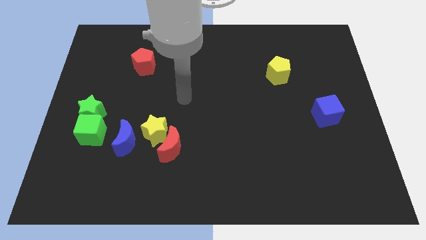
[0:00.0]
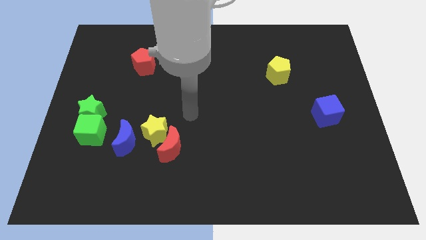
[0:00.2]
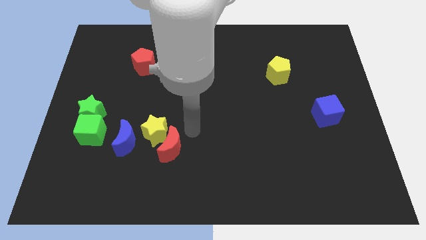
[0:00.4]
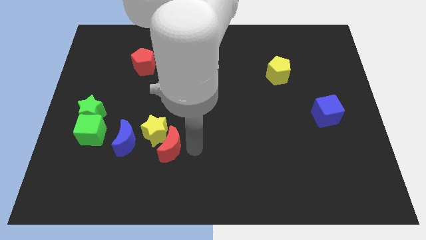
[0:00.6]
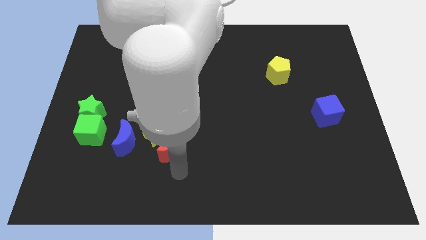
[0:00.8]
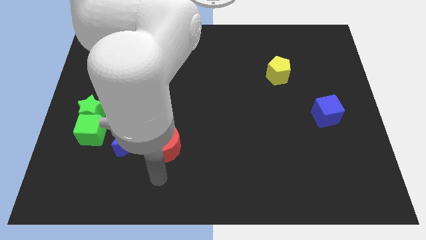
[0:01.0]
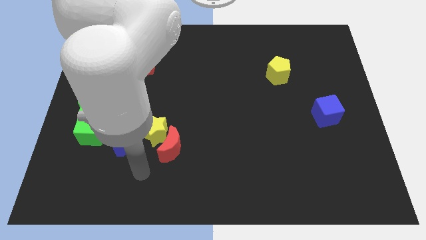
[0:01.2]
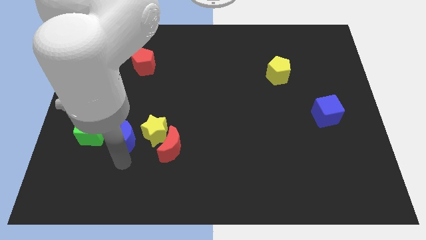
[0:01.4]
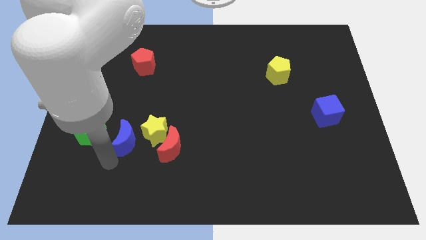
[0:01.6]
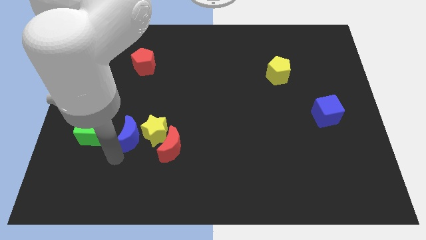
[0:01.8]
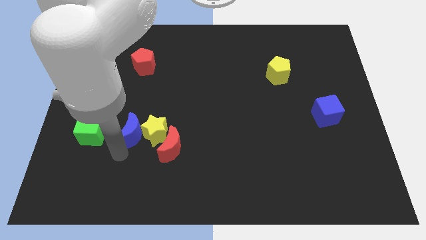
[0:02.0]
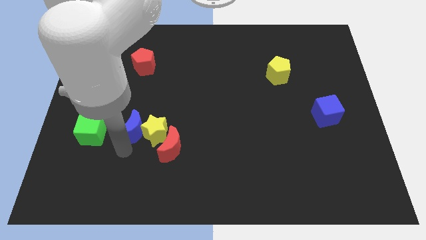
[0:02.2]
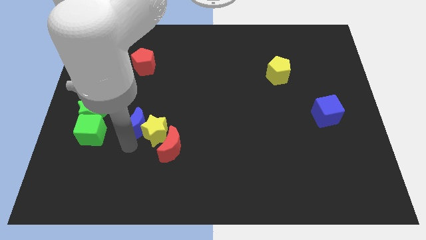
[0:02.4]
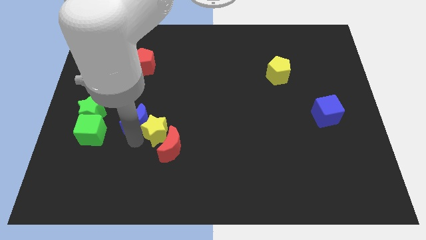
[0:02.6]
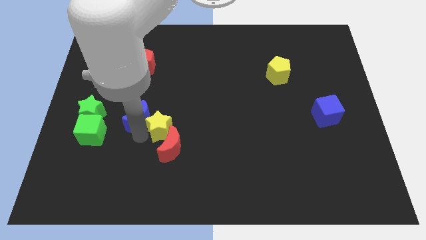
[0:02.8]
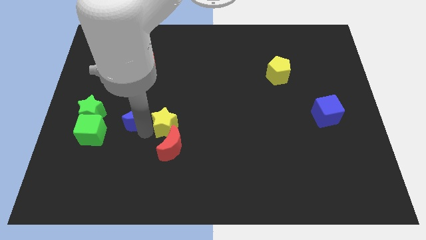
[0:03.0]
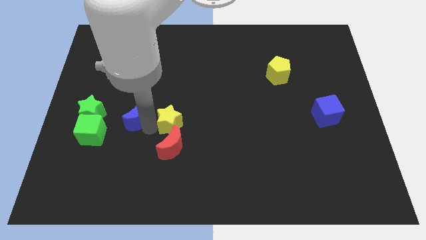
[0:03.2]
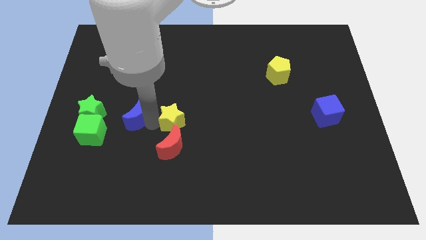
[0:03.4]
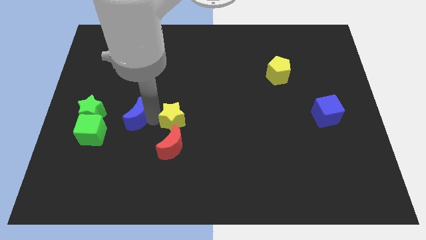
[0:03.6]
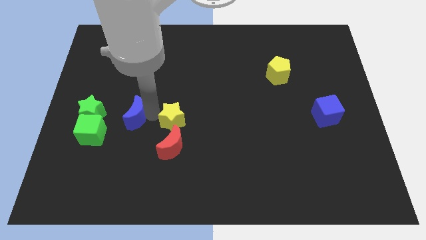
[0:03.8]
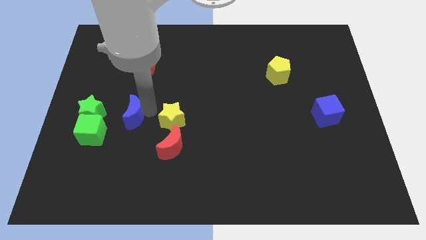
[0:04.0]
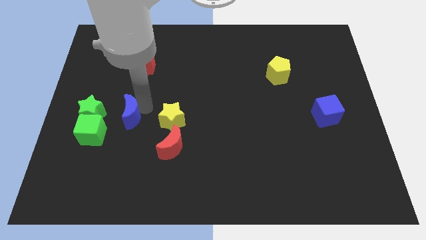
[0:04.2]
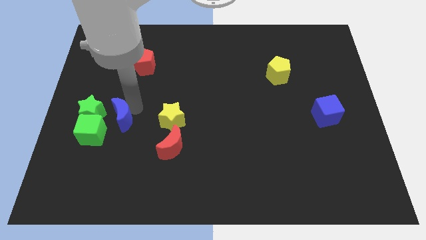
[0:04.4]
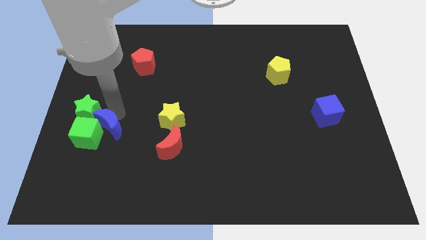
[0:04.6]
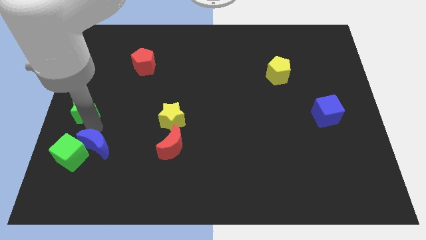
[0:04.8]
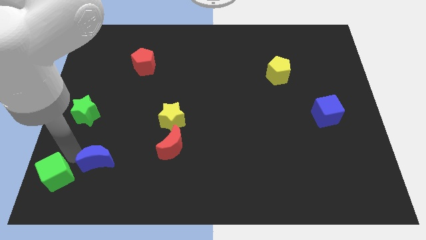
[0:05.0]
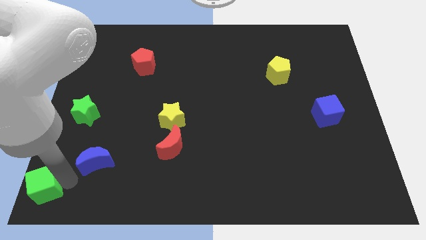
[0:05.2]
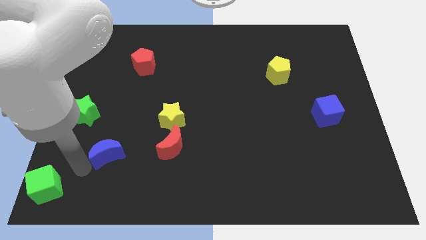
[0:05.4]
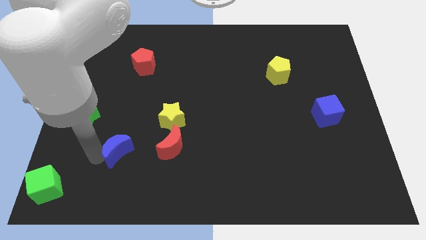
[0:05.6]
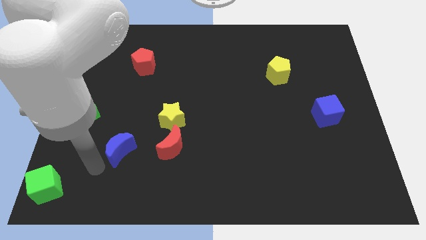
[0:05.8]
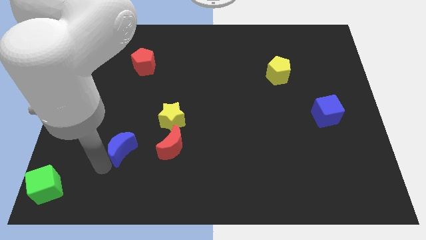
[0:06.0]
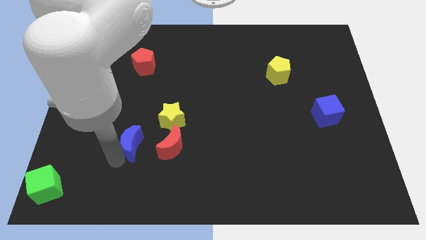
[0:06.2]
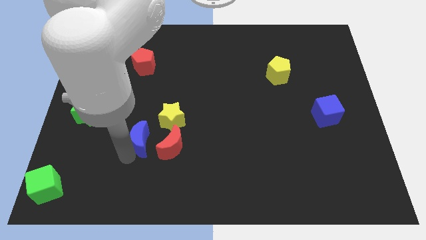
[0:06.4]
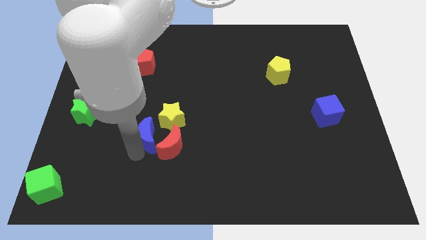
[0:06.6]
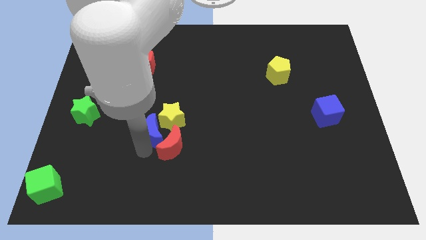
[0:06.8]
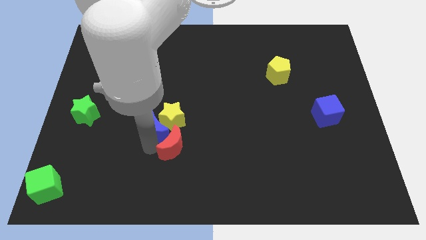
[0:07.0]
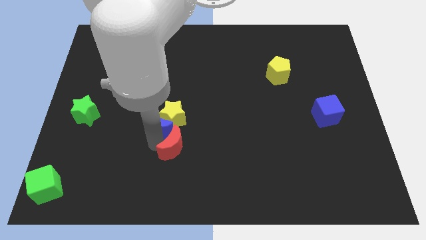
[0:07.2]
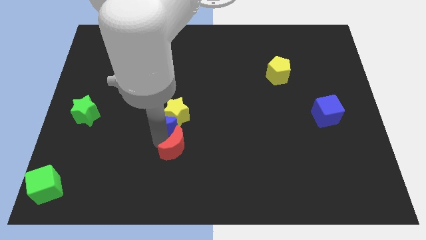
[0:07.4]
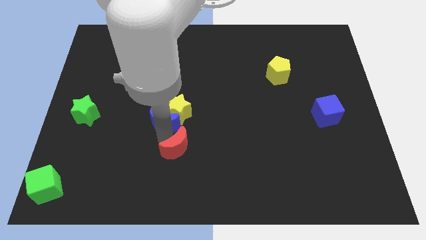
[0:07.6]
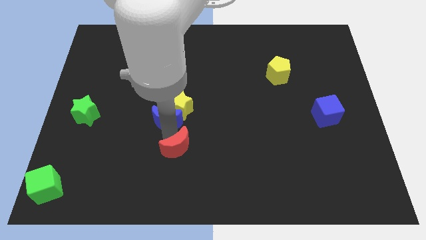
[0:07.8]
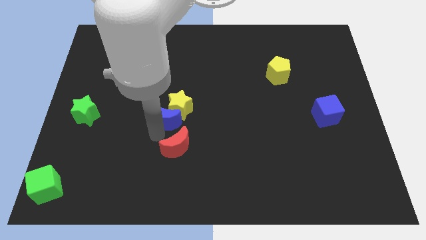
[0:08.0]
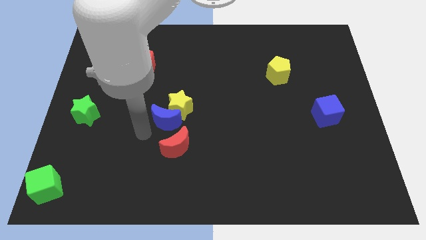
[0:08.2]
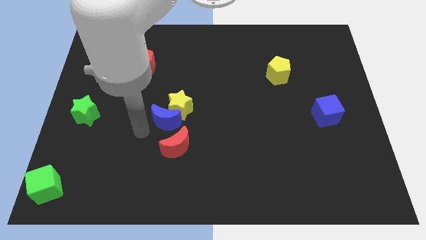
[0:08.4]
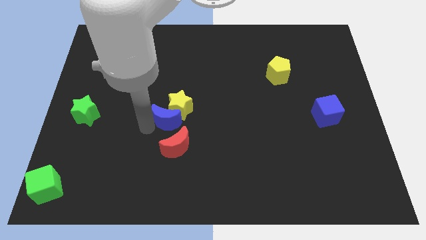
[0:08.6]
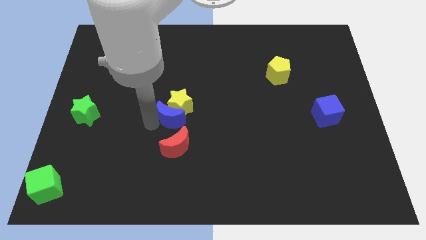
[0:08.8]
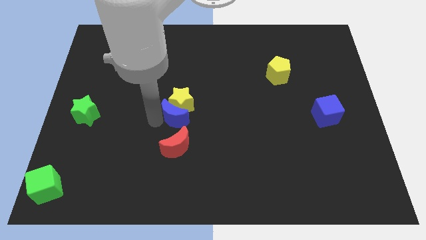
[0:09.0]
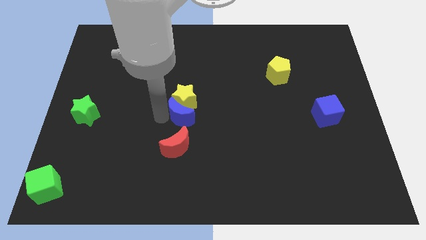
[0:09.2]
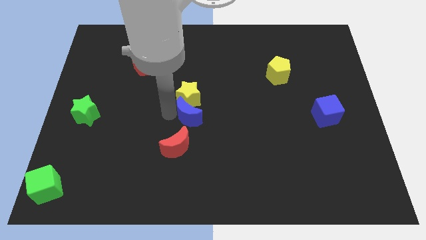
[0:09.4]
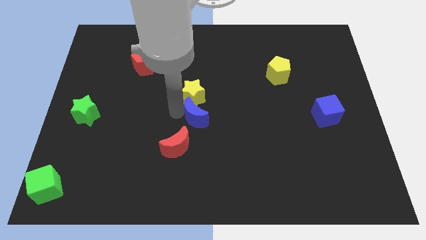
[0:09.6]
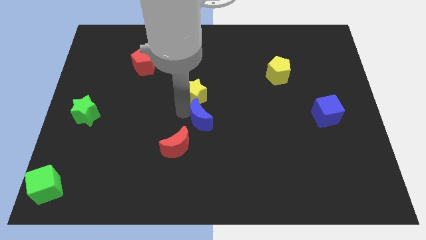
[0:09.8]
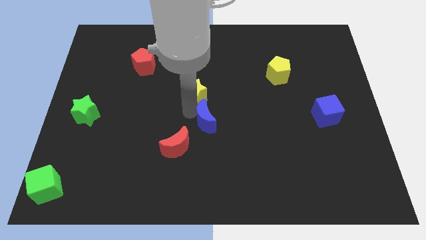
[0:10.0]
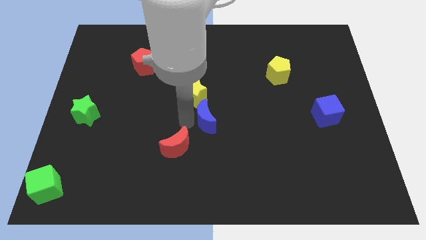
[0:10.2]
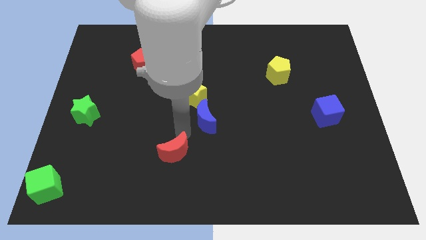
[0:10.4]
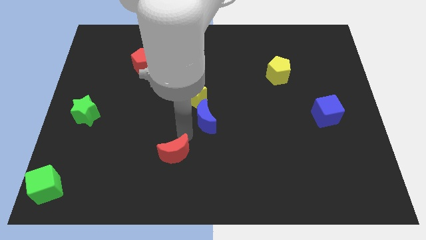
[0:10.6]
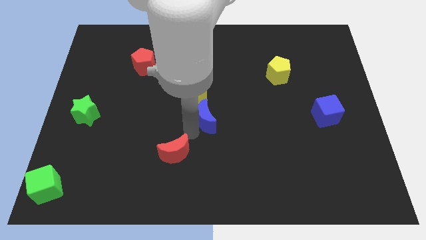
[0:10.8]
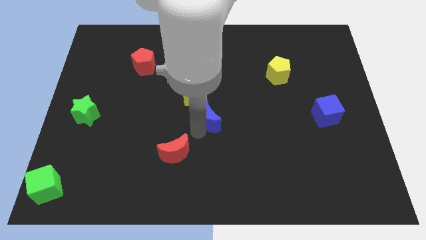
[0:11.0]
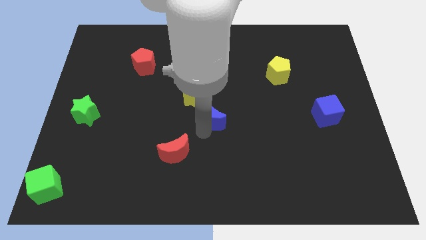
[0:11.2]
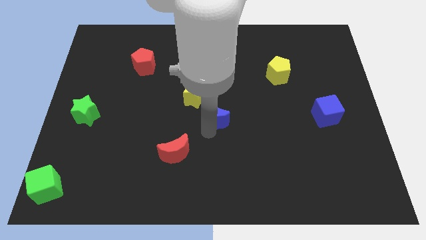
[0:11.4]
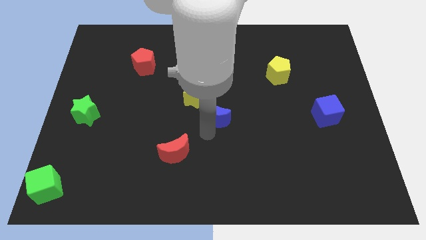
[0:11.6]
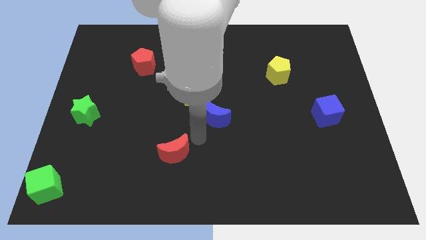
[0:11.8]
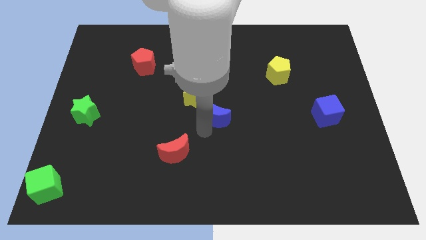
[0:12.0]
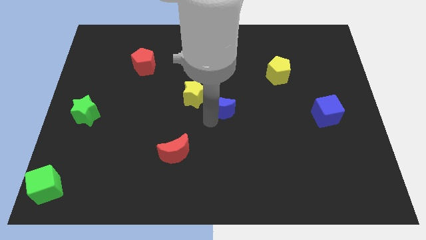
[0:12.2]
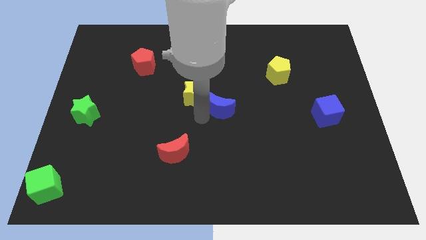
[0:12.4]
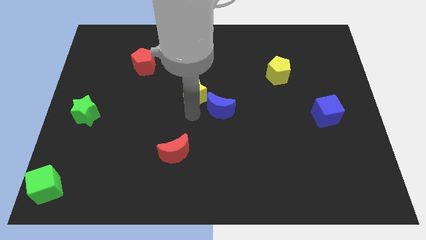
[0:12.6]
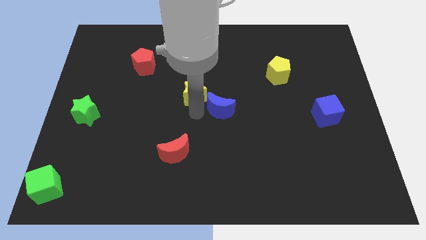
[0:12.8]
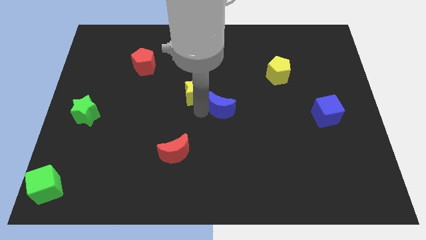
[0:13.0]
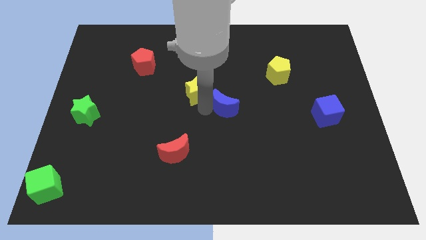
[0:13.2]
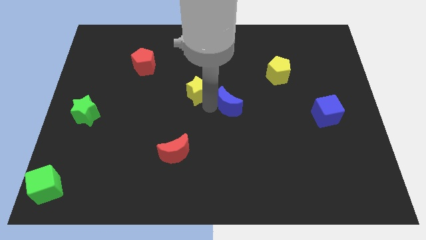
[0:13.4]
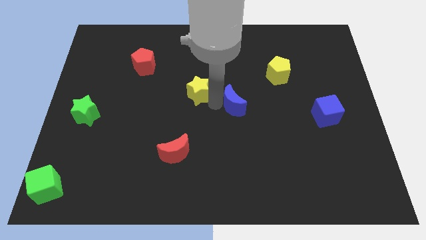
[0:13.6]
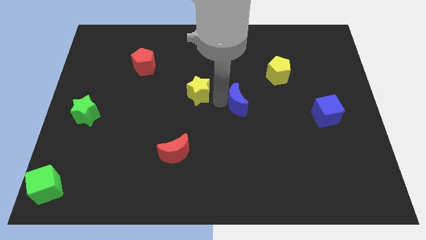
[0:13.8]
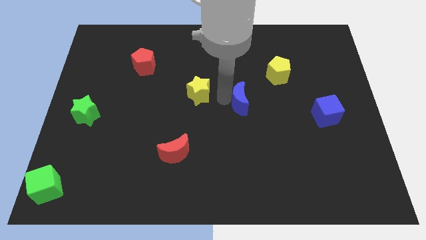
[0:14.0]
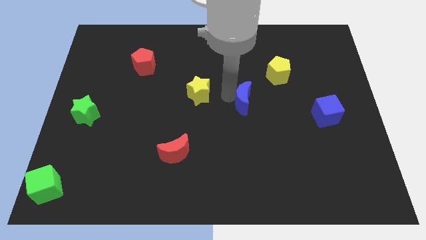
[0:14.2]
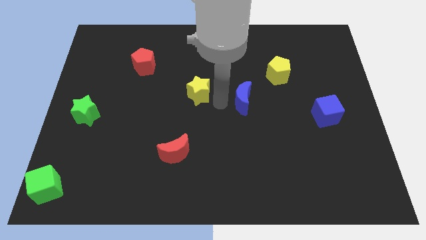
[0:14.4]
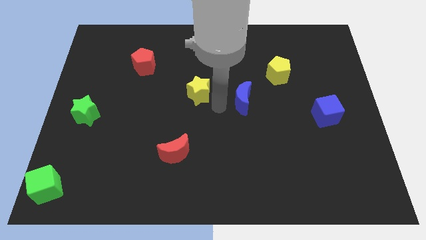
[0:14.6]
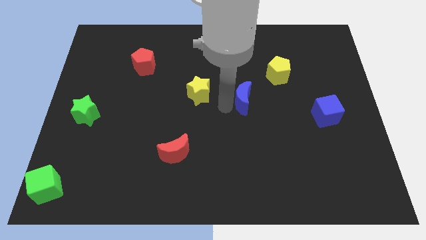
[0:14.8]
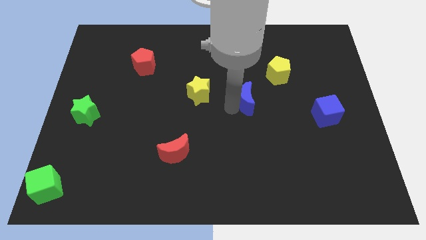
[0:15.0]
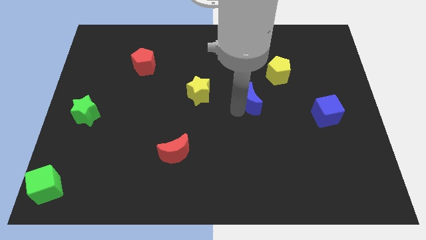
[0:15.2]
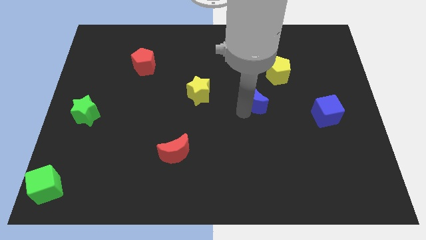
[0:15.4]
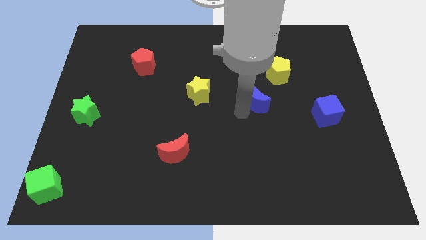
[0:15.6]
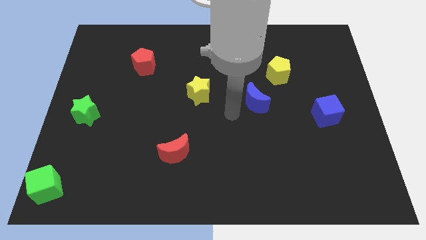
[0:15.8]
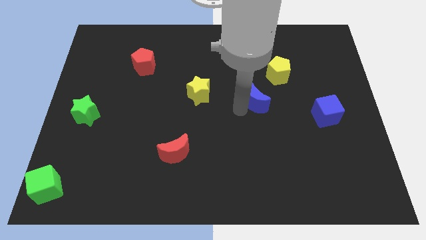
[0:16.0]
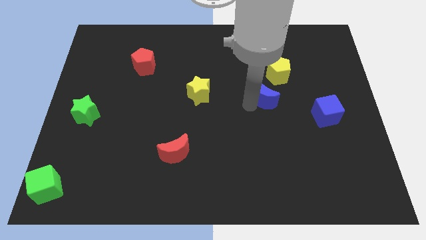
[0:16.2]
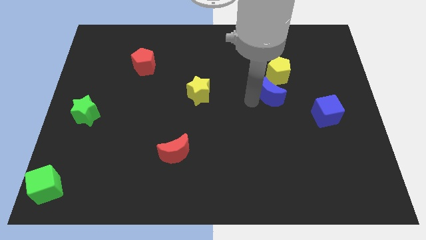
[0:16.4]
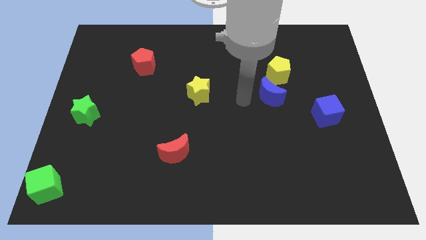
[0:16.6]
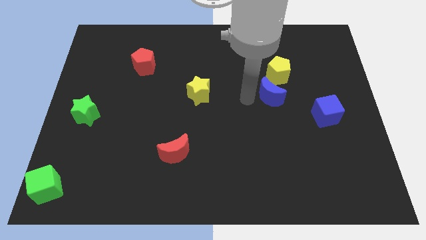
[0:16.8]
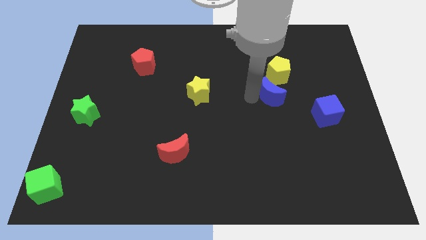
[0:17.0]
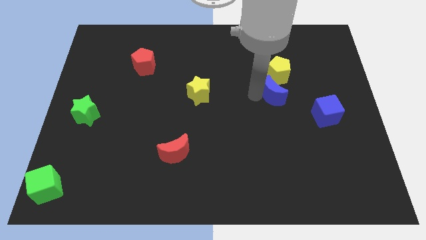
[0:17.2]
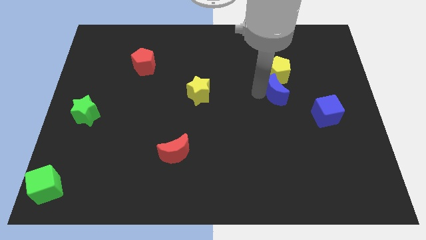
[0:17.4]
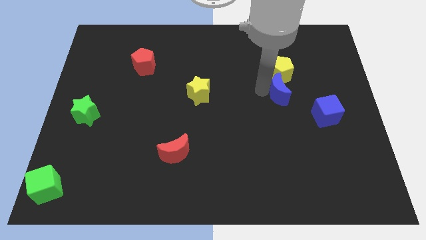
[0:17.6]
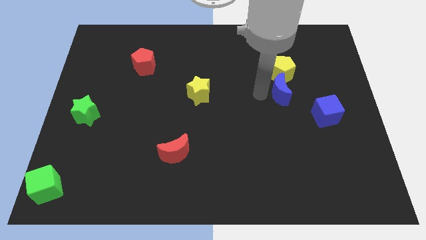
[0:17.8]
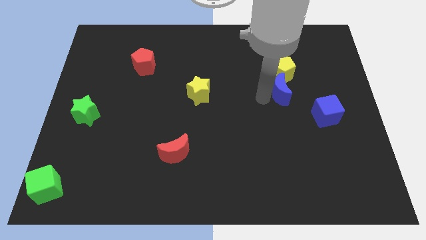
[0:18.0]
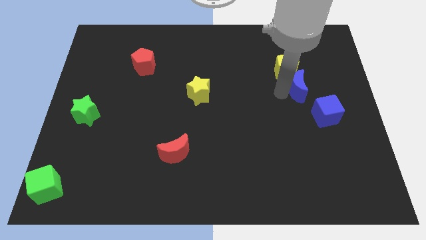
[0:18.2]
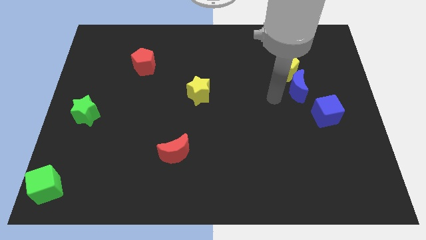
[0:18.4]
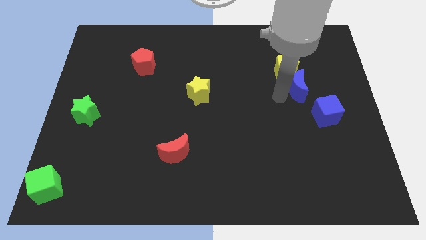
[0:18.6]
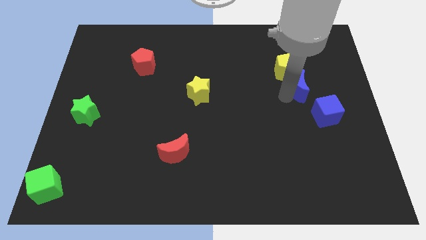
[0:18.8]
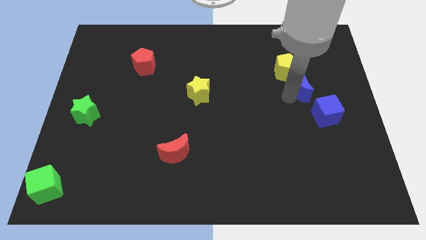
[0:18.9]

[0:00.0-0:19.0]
push the blue moon above the blue cube
